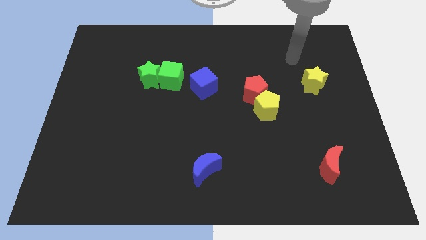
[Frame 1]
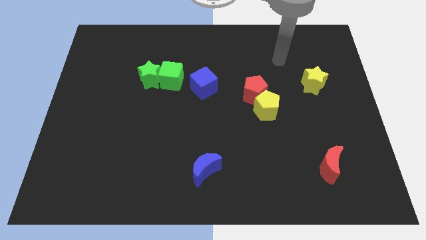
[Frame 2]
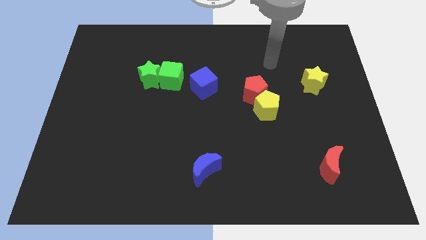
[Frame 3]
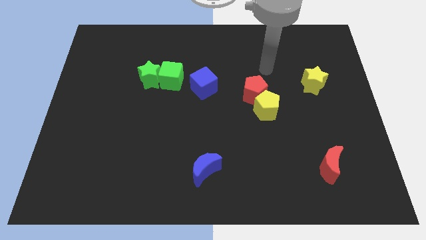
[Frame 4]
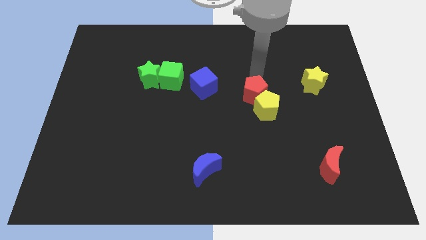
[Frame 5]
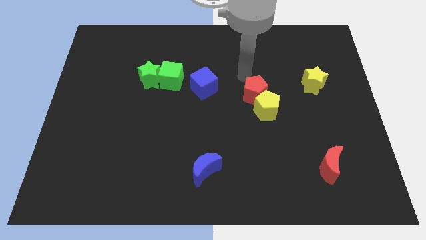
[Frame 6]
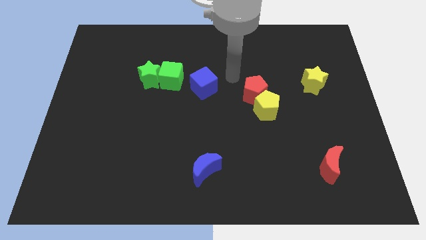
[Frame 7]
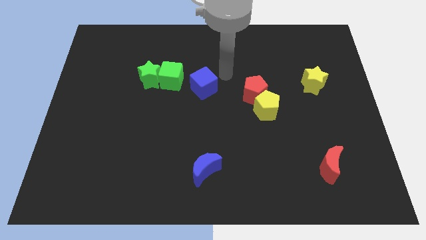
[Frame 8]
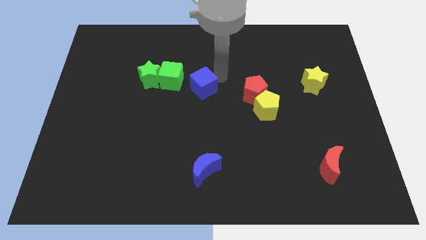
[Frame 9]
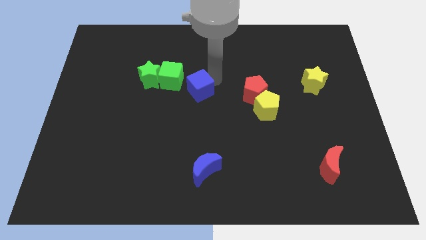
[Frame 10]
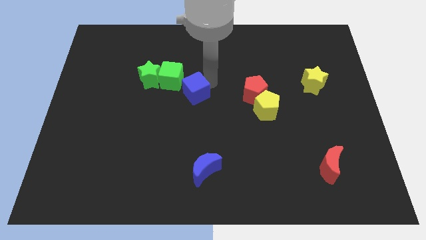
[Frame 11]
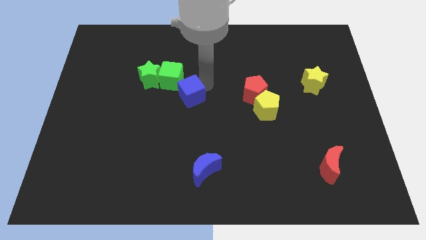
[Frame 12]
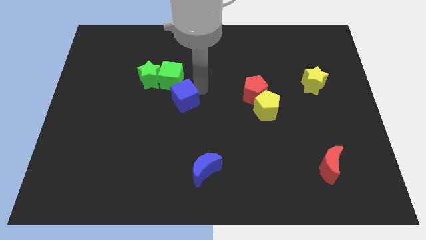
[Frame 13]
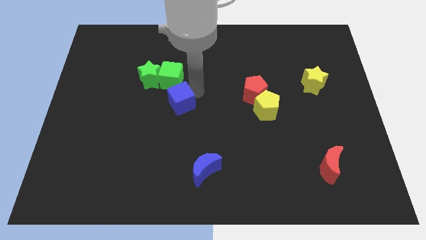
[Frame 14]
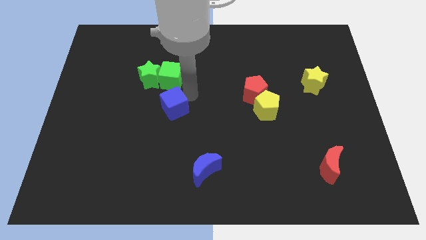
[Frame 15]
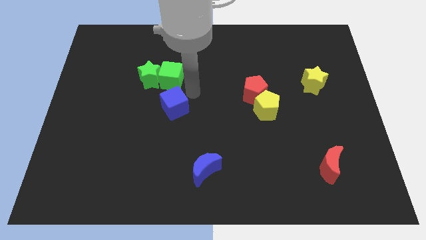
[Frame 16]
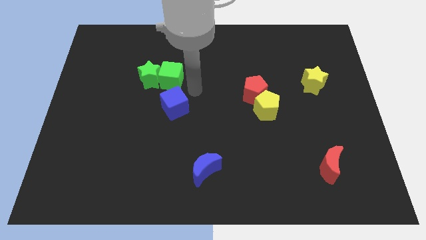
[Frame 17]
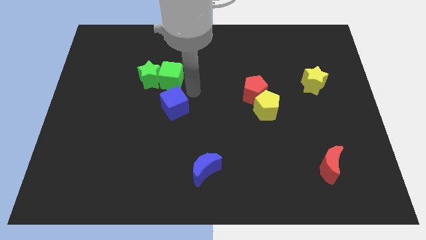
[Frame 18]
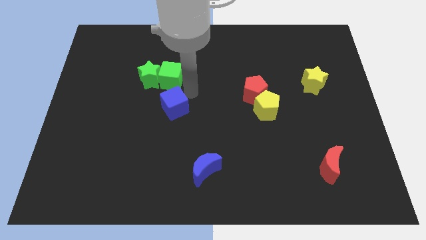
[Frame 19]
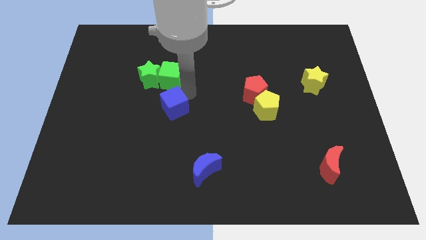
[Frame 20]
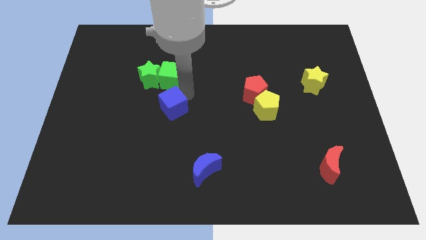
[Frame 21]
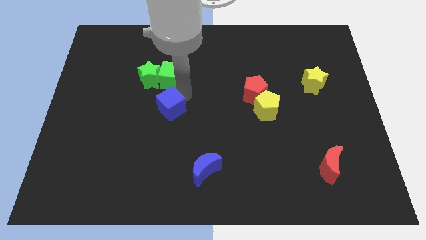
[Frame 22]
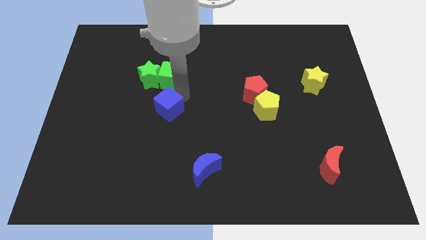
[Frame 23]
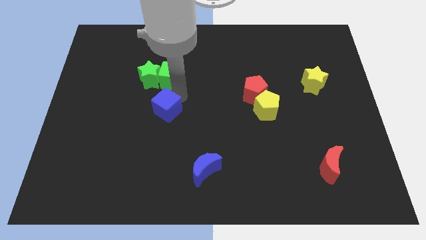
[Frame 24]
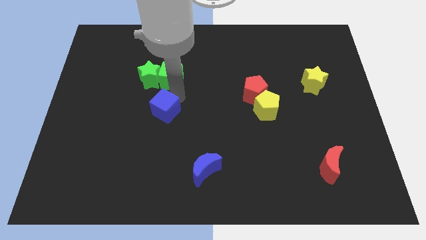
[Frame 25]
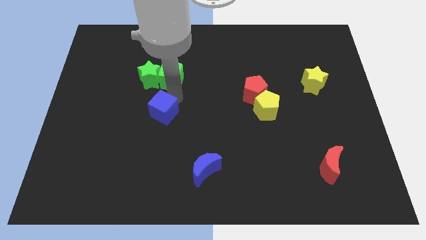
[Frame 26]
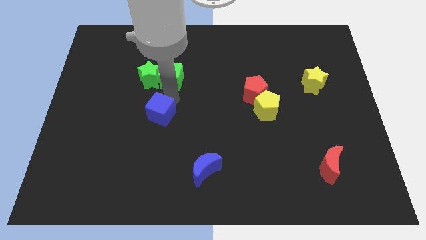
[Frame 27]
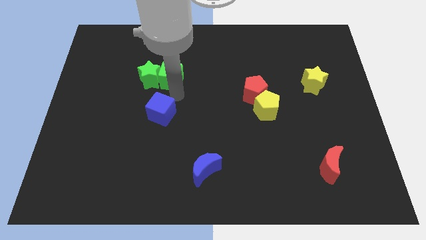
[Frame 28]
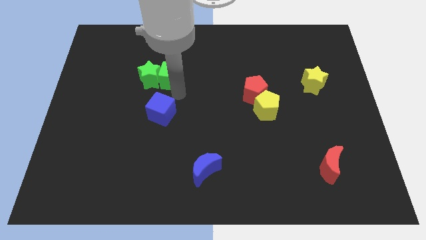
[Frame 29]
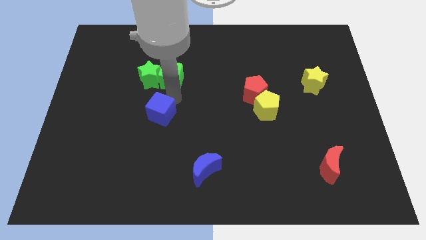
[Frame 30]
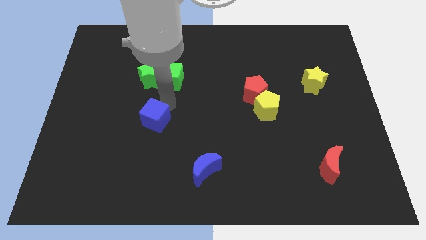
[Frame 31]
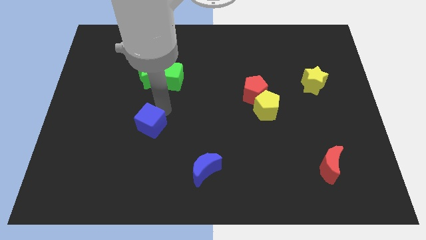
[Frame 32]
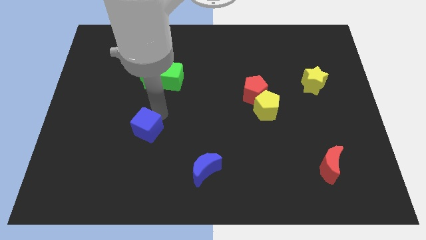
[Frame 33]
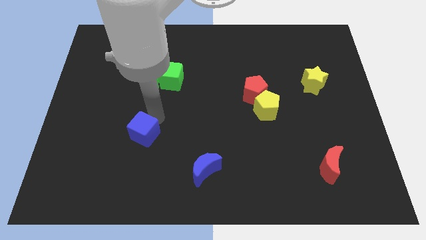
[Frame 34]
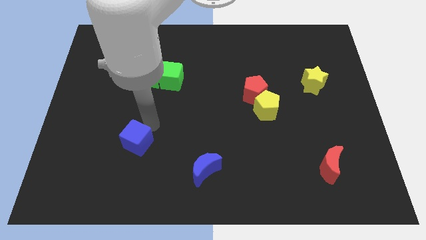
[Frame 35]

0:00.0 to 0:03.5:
move the blue cube down and left diagonally

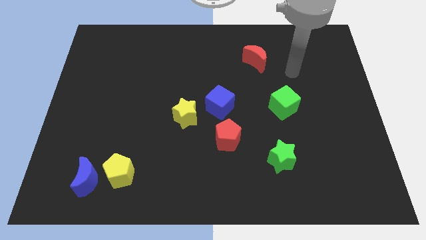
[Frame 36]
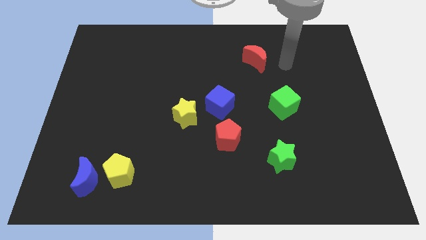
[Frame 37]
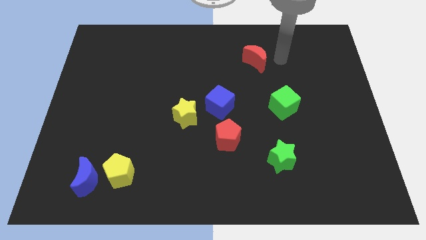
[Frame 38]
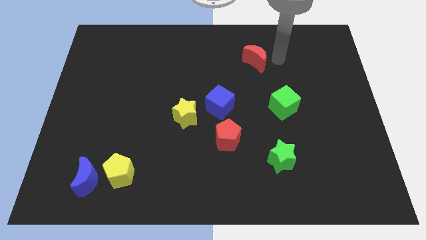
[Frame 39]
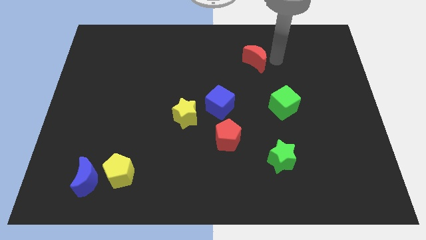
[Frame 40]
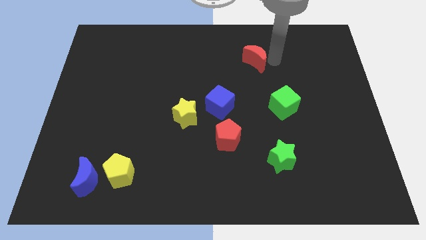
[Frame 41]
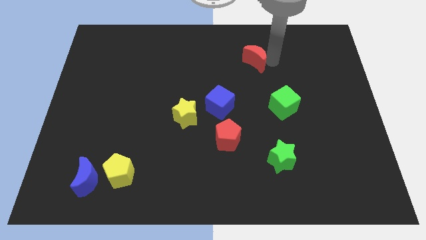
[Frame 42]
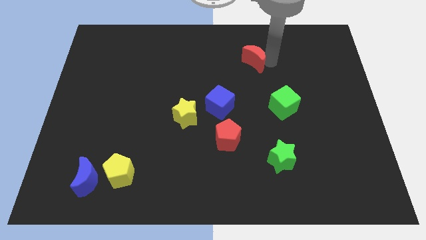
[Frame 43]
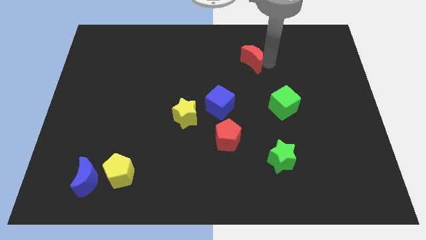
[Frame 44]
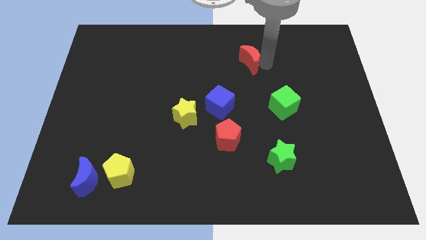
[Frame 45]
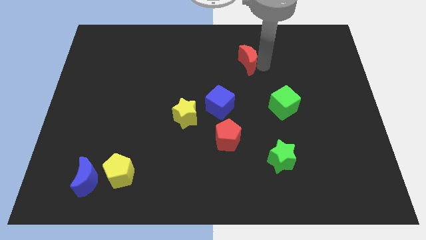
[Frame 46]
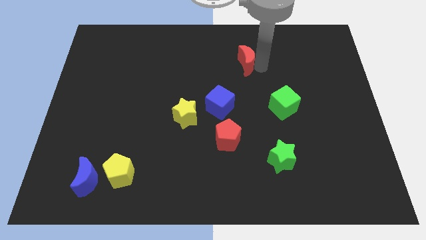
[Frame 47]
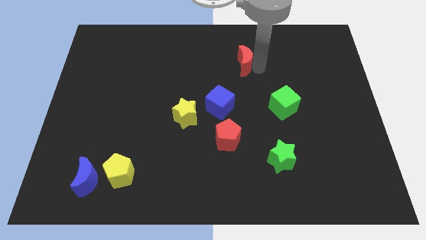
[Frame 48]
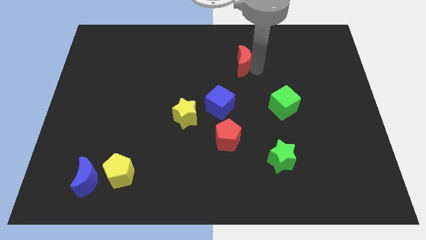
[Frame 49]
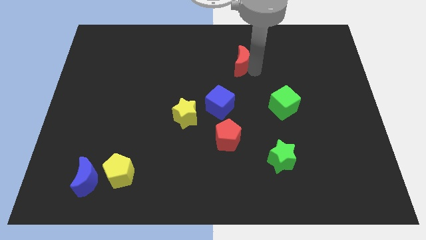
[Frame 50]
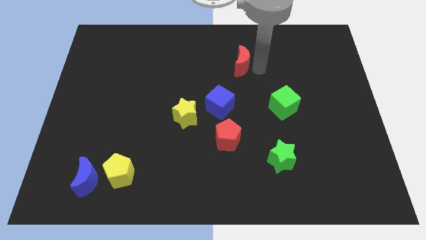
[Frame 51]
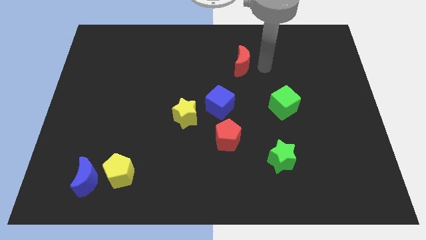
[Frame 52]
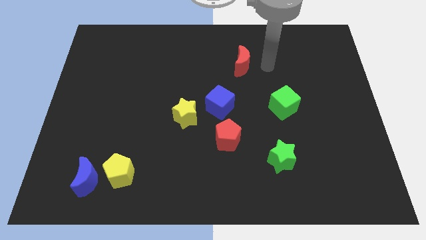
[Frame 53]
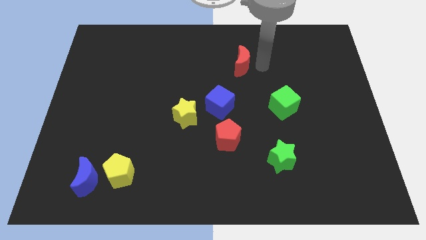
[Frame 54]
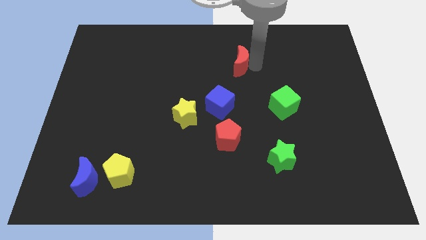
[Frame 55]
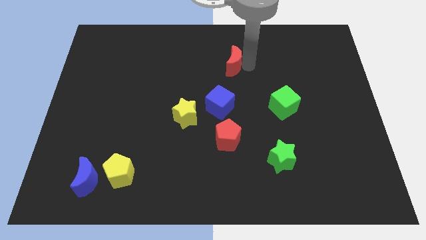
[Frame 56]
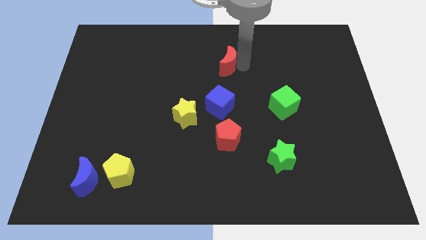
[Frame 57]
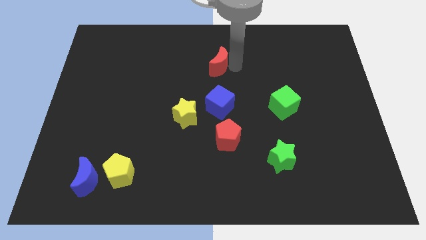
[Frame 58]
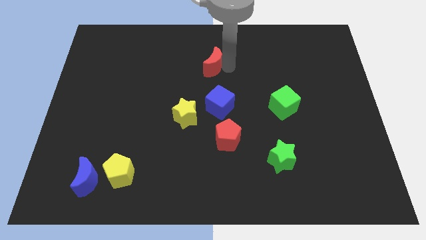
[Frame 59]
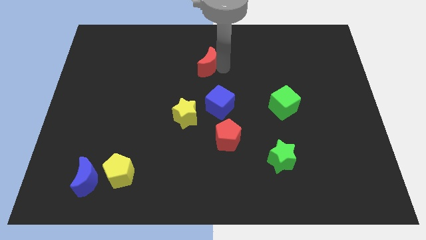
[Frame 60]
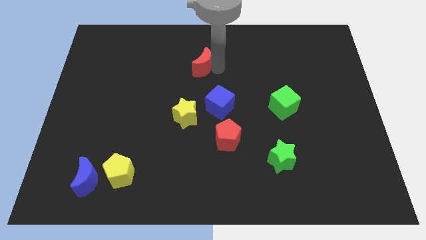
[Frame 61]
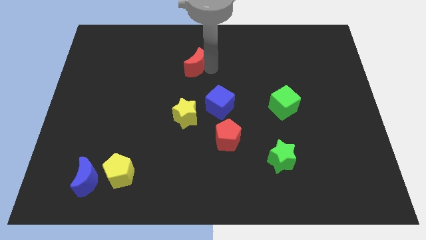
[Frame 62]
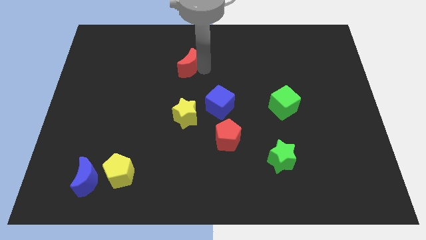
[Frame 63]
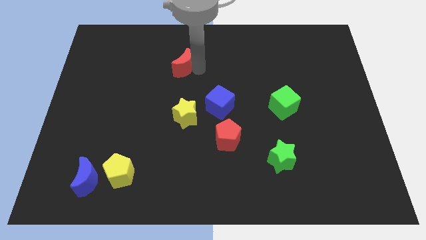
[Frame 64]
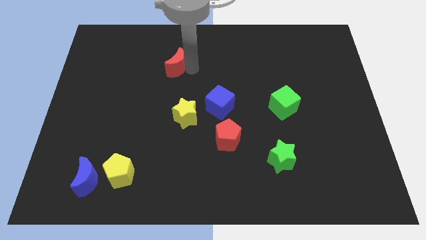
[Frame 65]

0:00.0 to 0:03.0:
slide the red moon to the left

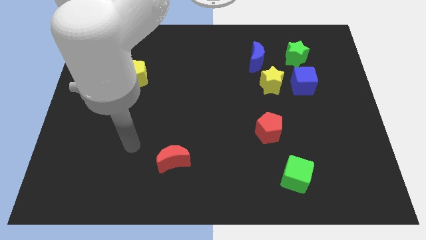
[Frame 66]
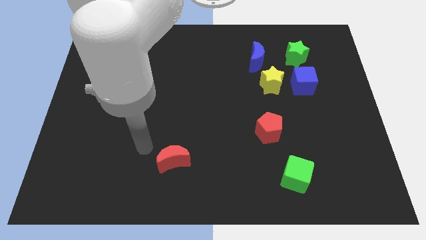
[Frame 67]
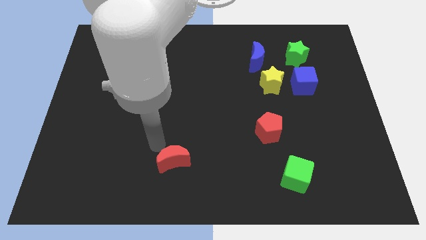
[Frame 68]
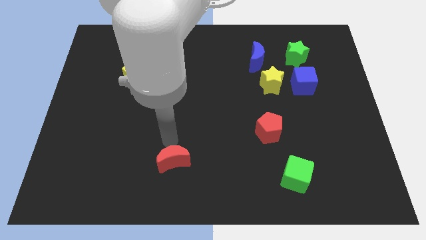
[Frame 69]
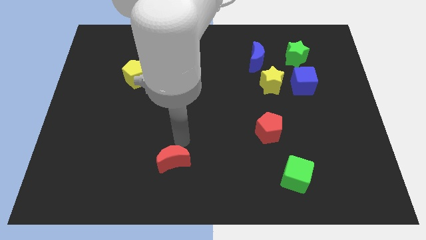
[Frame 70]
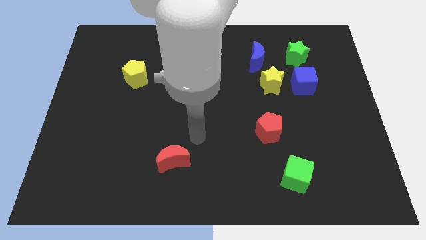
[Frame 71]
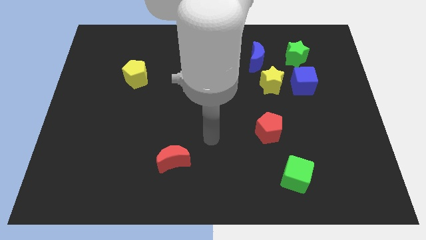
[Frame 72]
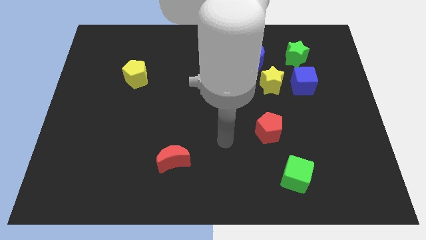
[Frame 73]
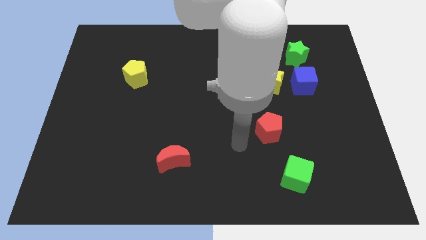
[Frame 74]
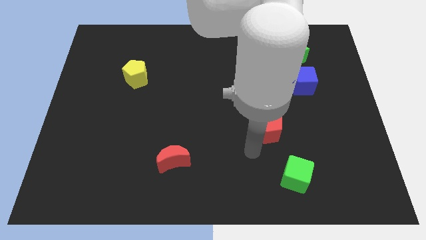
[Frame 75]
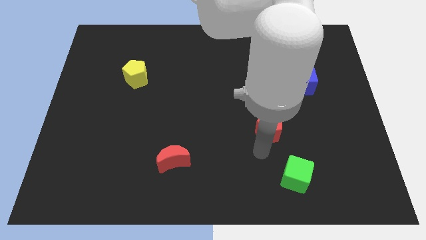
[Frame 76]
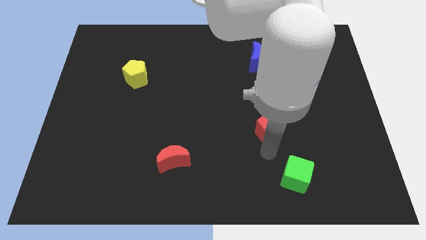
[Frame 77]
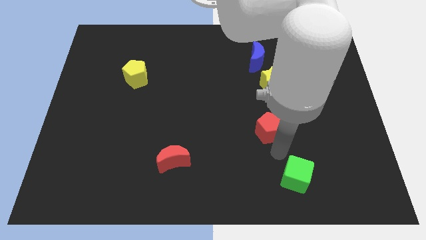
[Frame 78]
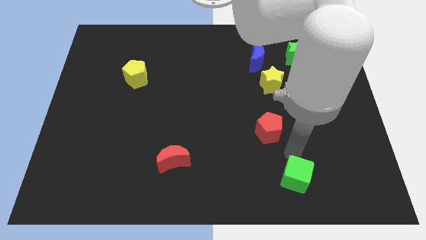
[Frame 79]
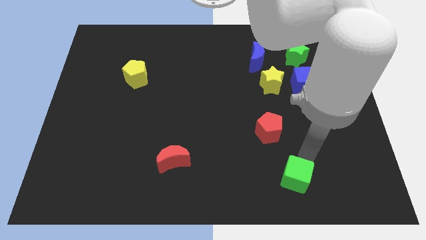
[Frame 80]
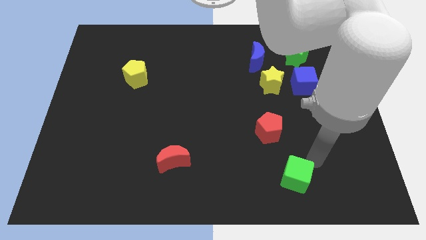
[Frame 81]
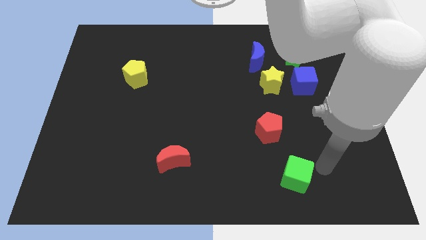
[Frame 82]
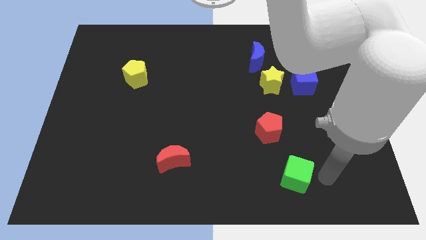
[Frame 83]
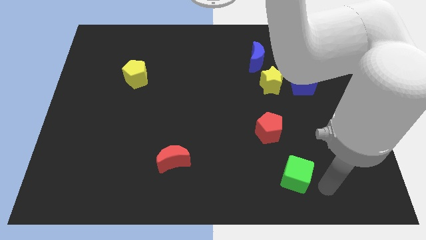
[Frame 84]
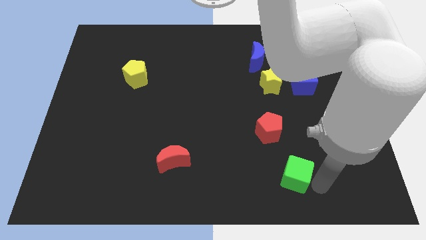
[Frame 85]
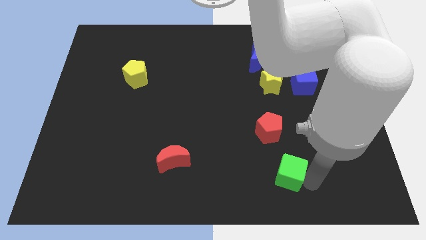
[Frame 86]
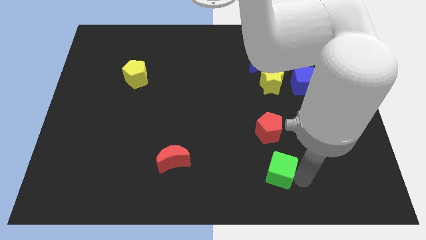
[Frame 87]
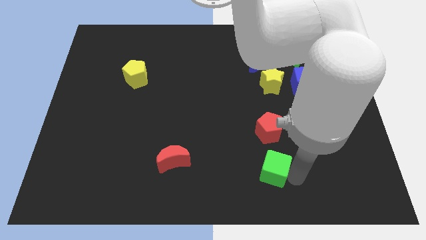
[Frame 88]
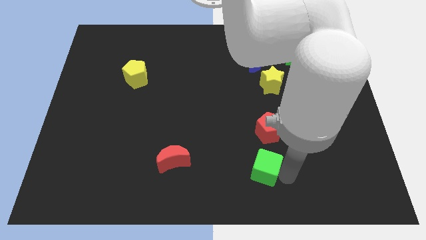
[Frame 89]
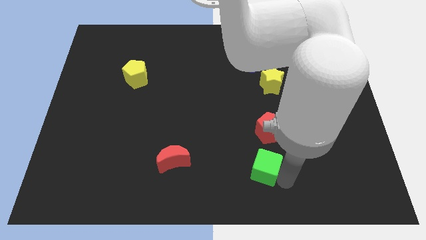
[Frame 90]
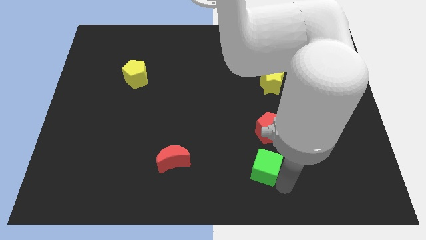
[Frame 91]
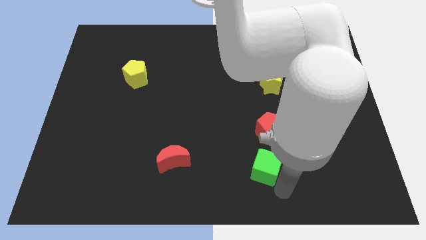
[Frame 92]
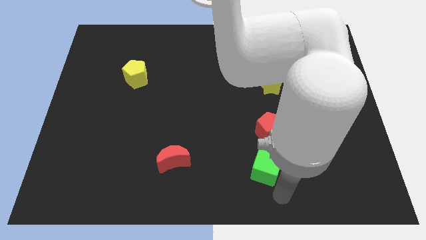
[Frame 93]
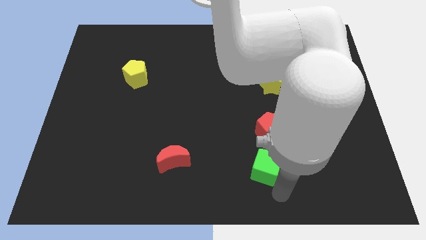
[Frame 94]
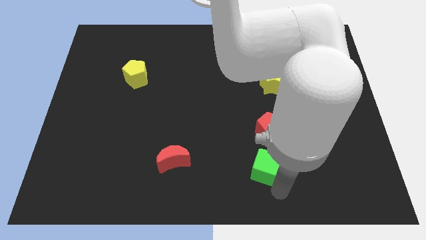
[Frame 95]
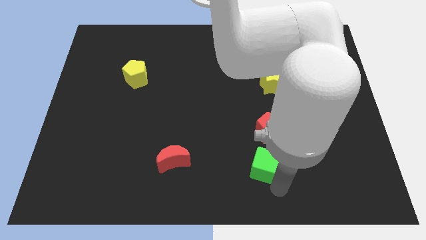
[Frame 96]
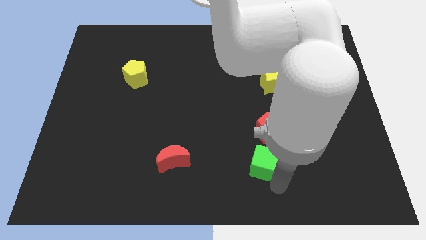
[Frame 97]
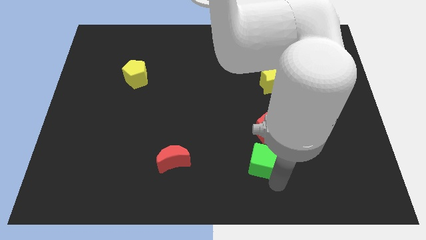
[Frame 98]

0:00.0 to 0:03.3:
push the green cube up and left somewhat
